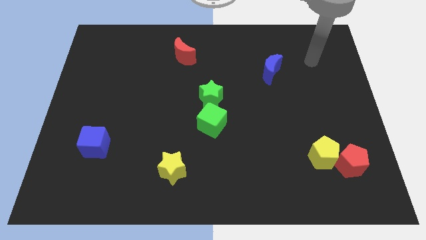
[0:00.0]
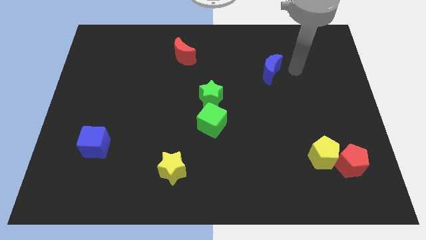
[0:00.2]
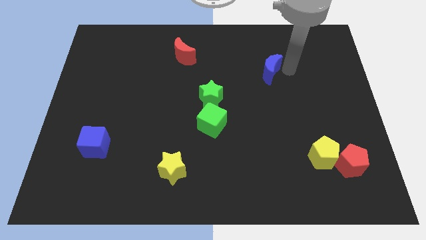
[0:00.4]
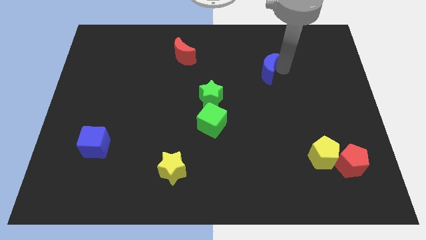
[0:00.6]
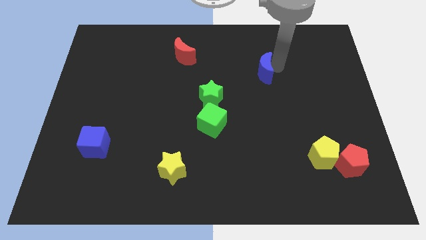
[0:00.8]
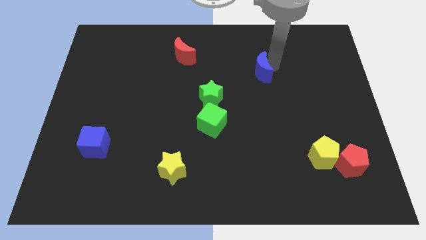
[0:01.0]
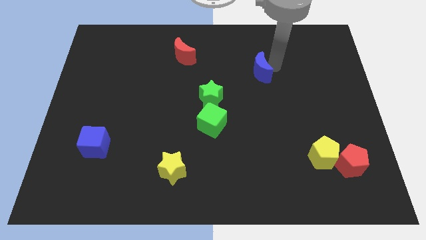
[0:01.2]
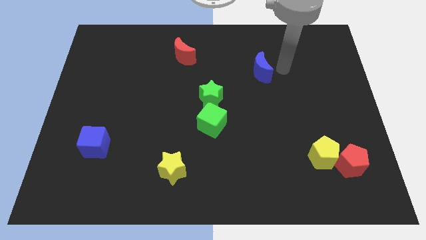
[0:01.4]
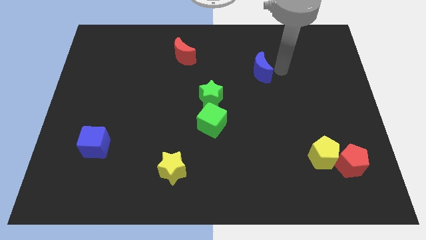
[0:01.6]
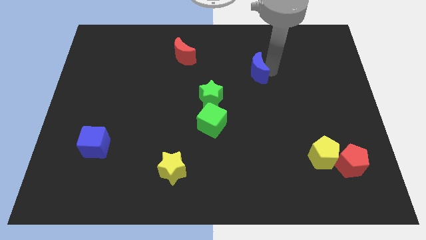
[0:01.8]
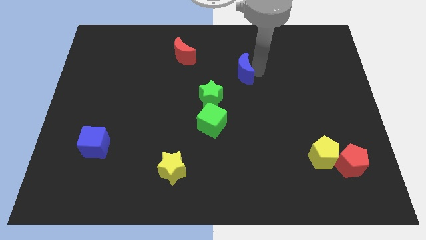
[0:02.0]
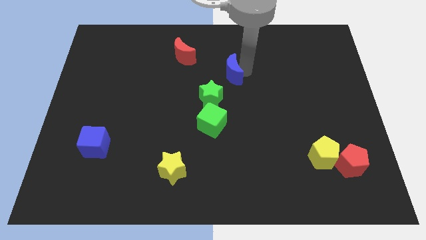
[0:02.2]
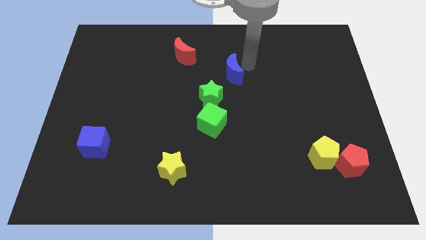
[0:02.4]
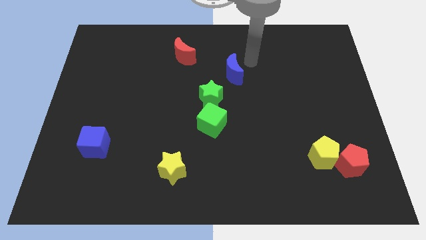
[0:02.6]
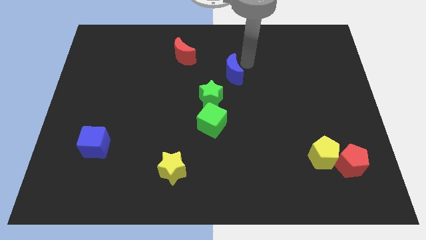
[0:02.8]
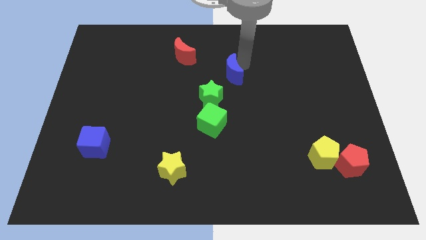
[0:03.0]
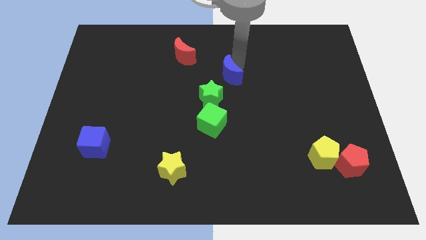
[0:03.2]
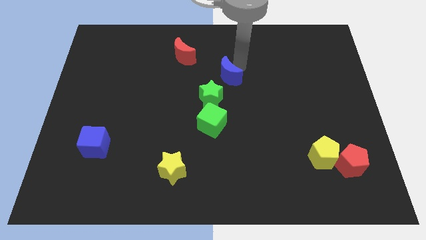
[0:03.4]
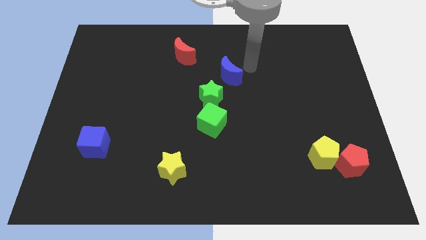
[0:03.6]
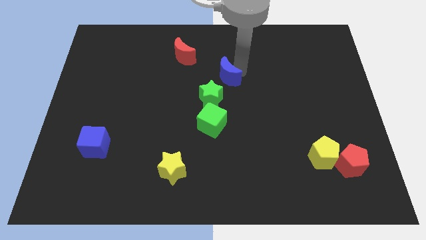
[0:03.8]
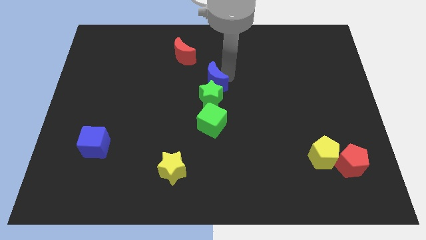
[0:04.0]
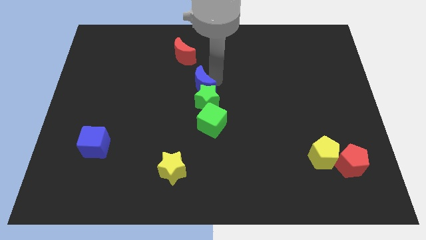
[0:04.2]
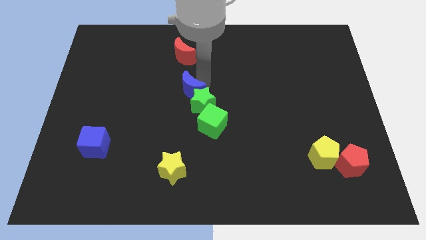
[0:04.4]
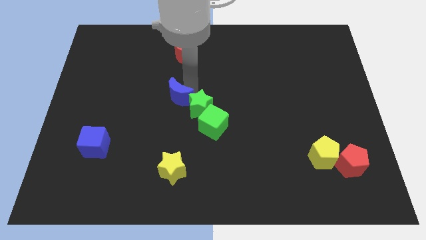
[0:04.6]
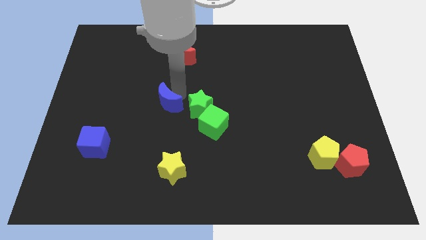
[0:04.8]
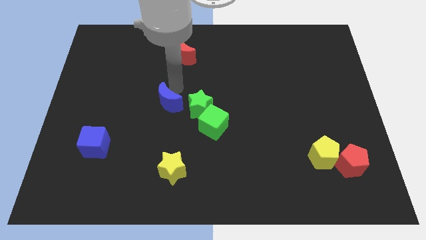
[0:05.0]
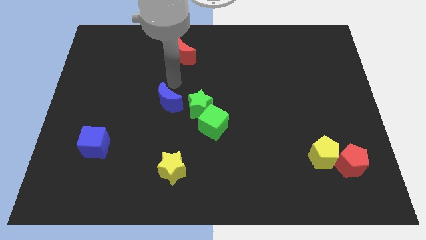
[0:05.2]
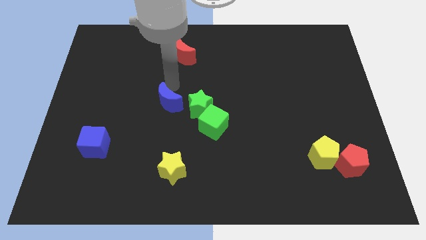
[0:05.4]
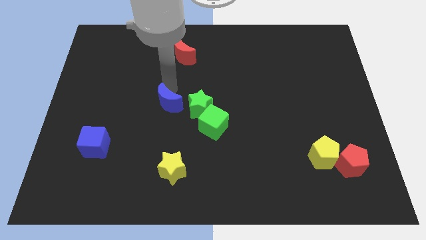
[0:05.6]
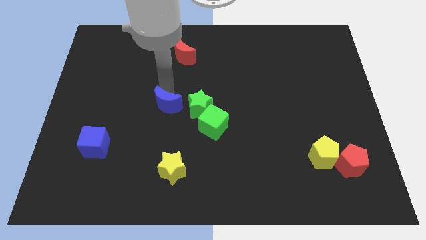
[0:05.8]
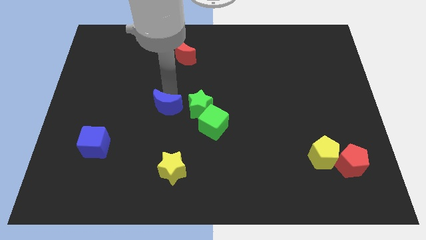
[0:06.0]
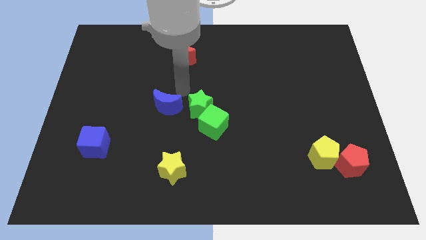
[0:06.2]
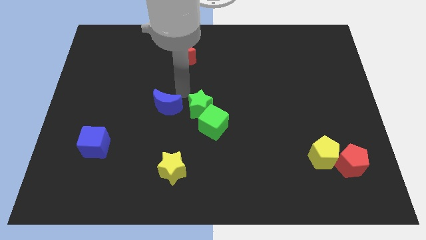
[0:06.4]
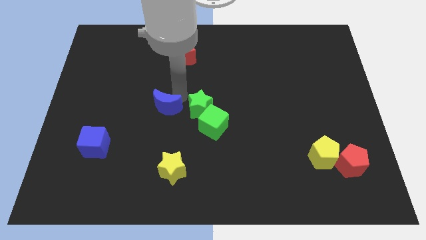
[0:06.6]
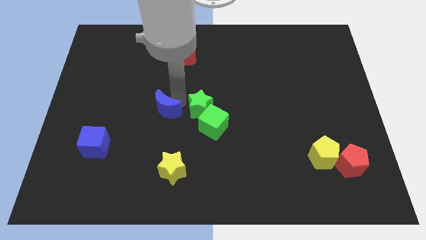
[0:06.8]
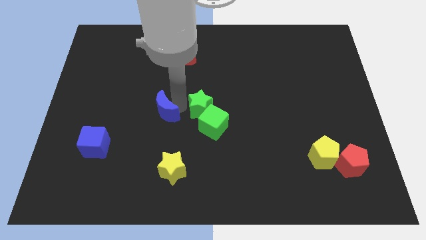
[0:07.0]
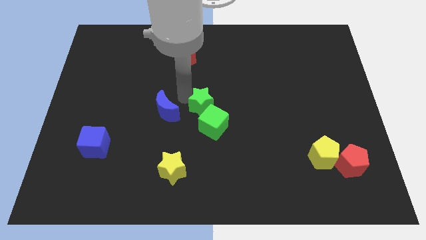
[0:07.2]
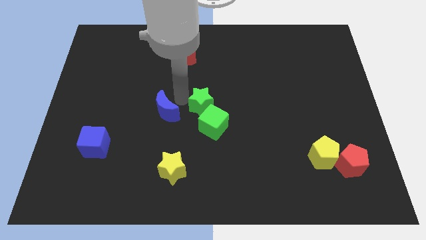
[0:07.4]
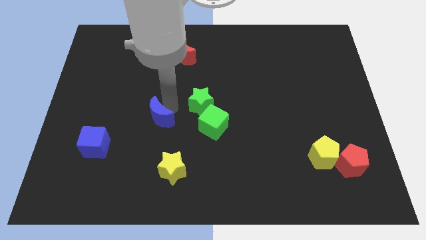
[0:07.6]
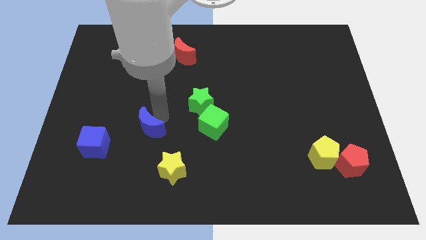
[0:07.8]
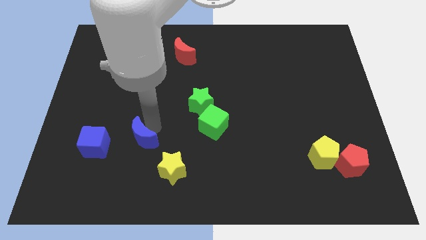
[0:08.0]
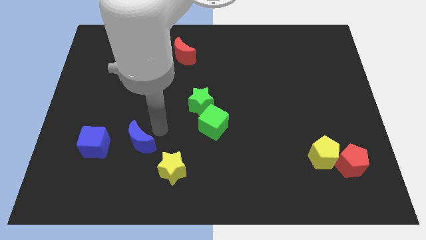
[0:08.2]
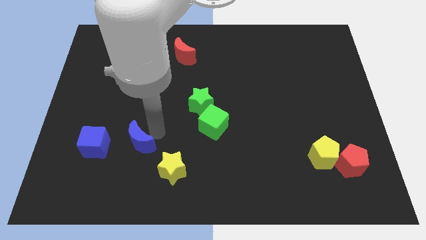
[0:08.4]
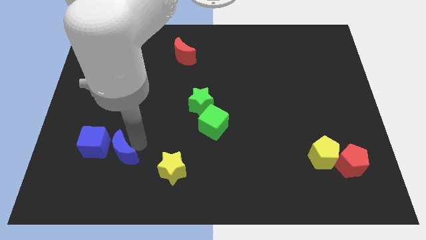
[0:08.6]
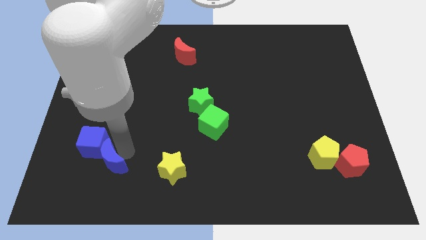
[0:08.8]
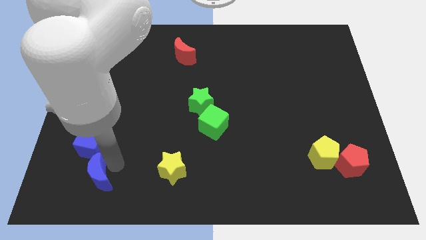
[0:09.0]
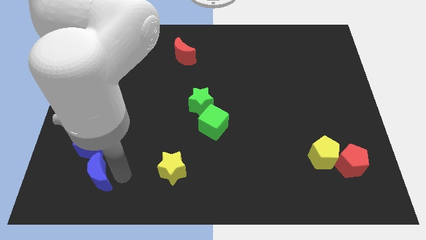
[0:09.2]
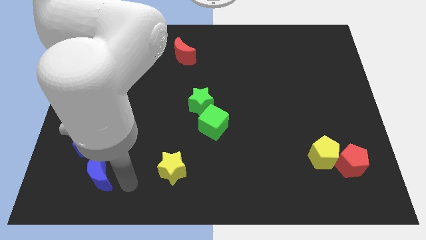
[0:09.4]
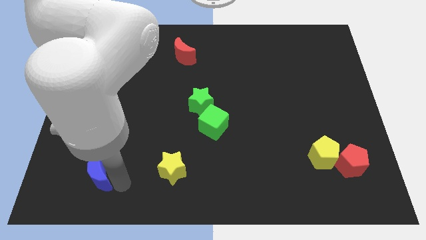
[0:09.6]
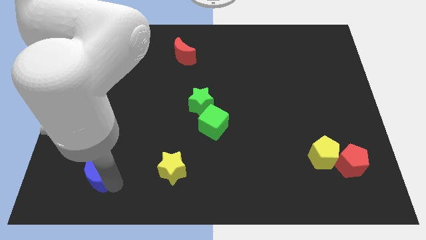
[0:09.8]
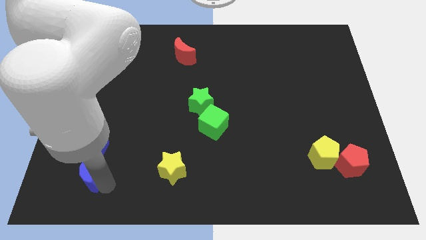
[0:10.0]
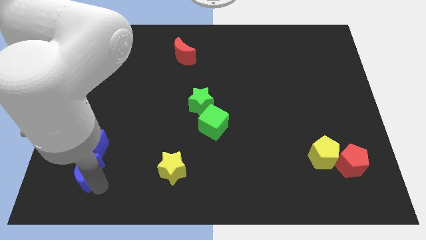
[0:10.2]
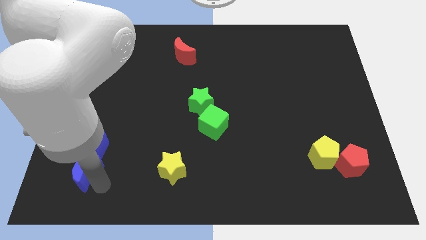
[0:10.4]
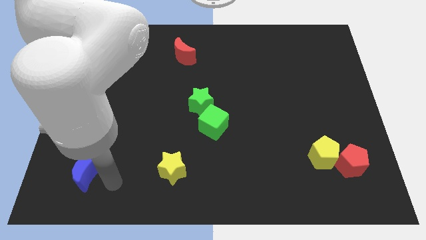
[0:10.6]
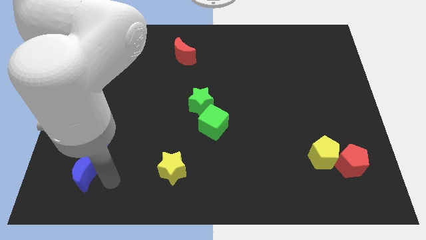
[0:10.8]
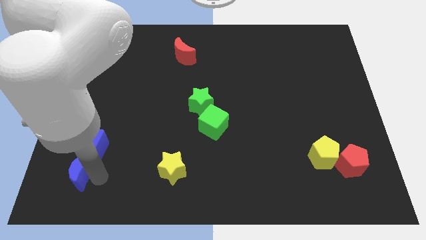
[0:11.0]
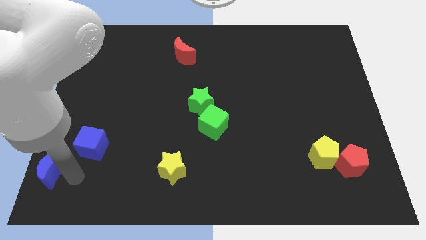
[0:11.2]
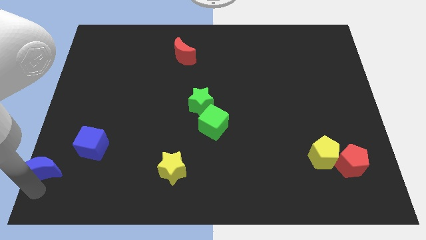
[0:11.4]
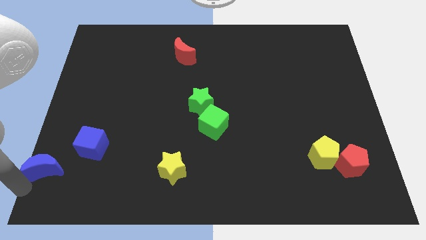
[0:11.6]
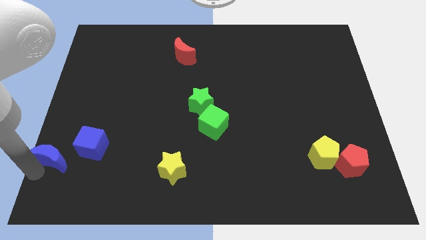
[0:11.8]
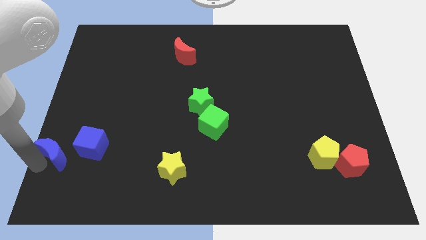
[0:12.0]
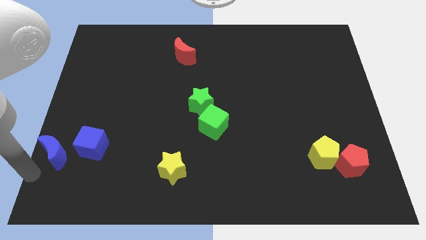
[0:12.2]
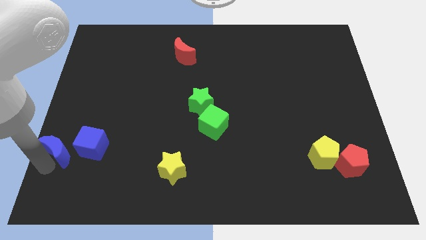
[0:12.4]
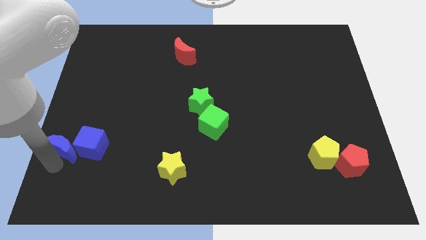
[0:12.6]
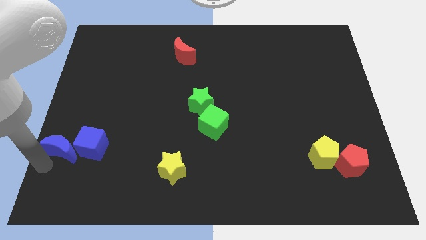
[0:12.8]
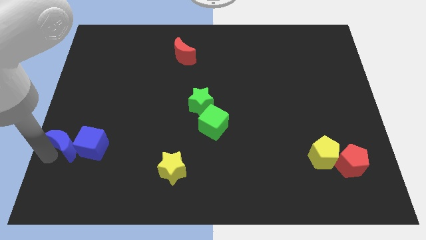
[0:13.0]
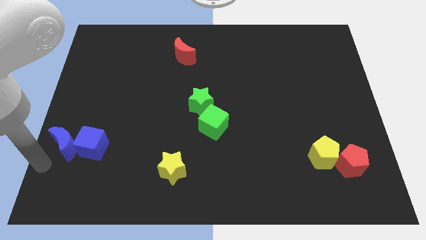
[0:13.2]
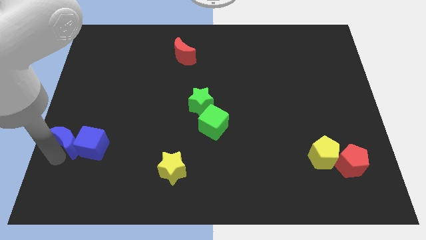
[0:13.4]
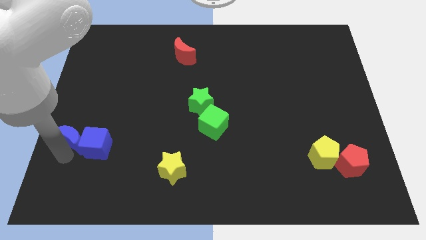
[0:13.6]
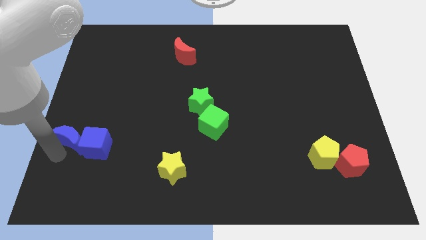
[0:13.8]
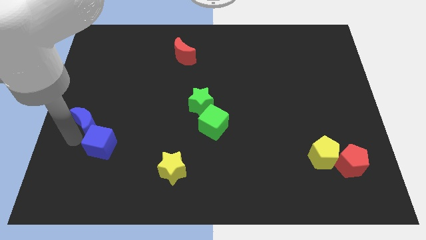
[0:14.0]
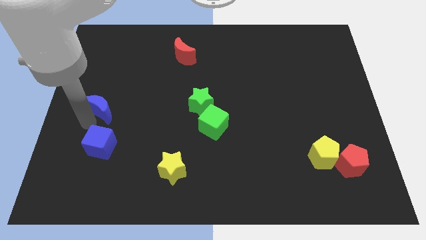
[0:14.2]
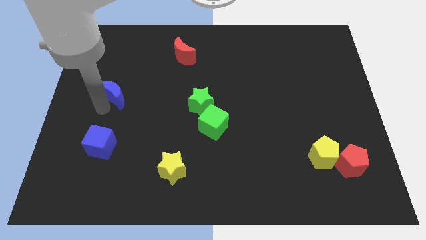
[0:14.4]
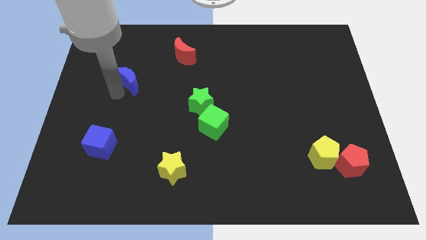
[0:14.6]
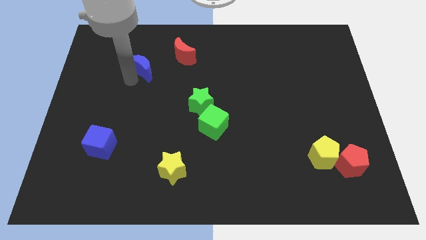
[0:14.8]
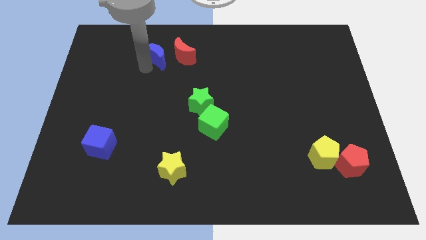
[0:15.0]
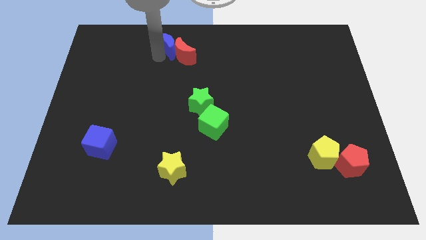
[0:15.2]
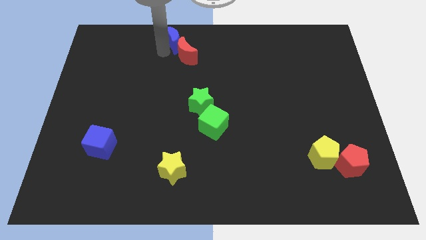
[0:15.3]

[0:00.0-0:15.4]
slide the blue moon to the top side

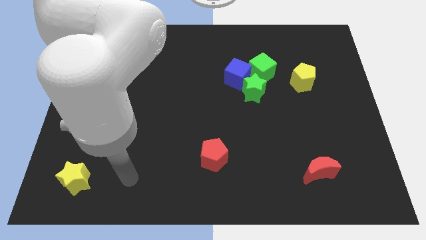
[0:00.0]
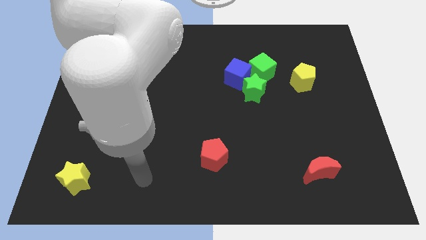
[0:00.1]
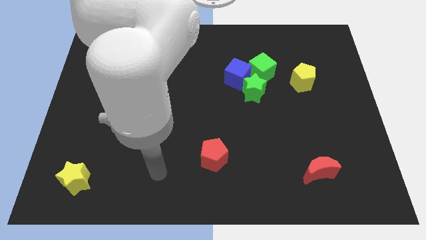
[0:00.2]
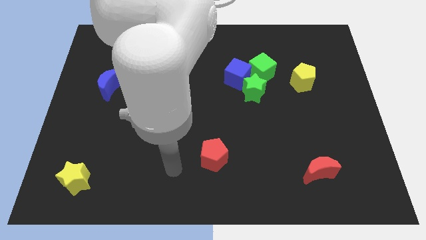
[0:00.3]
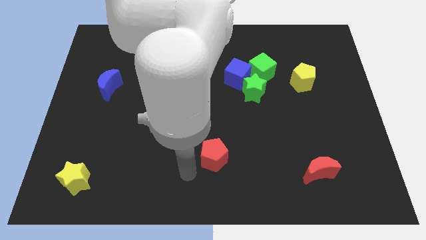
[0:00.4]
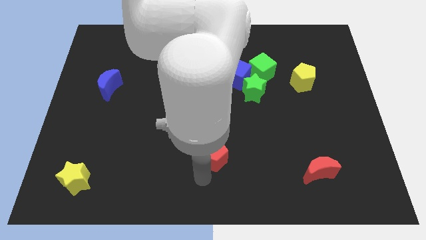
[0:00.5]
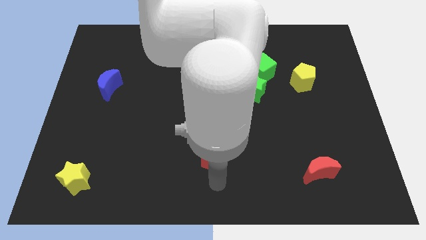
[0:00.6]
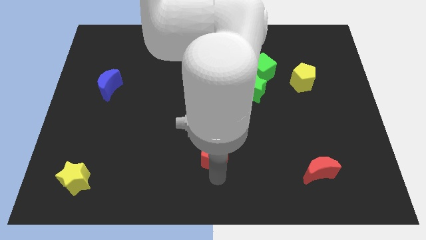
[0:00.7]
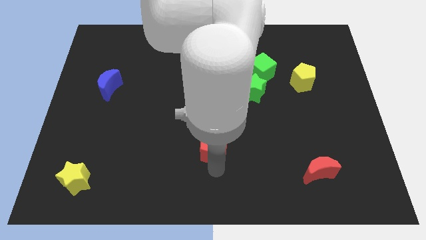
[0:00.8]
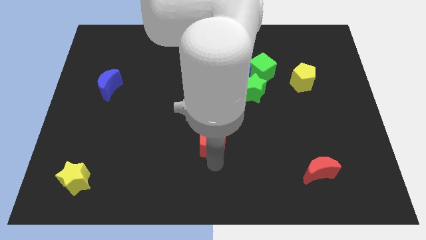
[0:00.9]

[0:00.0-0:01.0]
slide the red pentagon to the center
